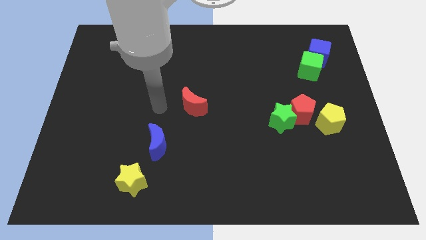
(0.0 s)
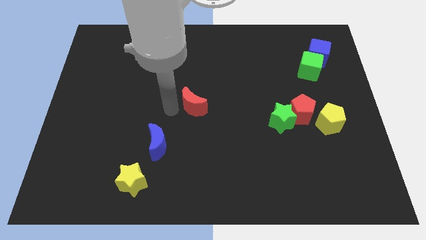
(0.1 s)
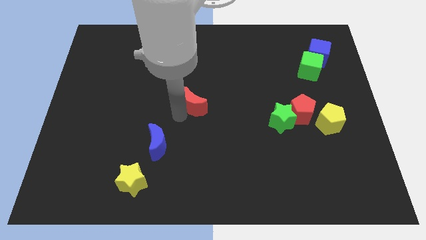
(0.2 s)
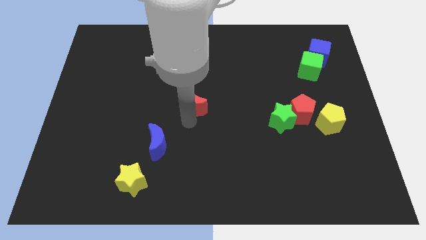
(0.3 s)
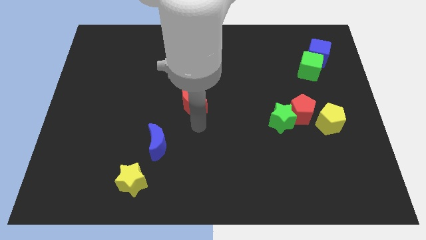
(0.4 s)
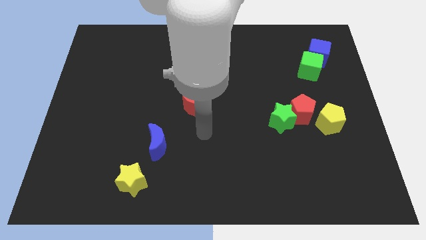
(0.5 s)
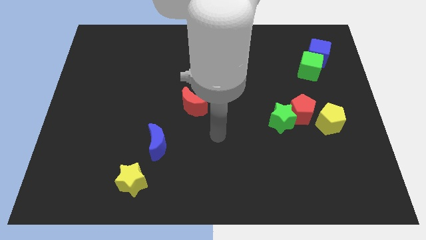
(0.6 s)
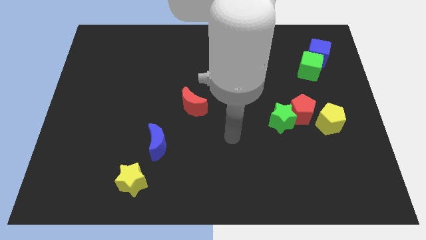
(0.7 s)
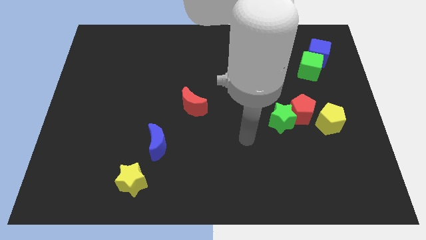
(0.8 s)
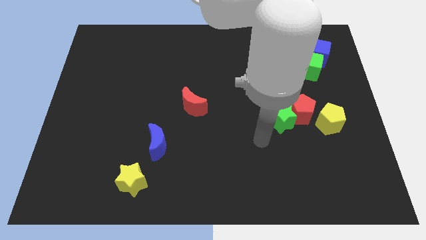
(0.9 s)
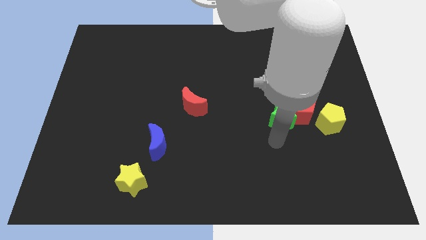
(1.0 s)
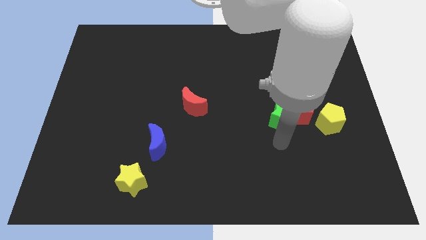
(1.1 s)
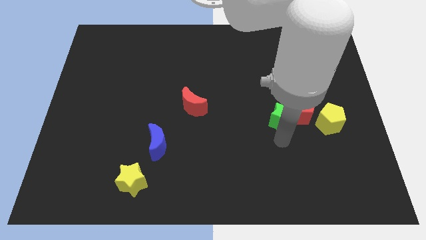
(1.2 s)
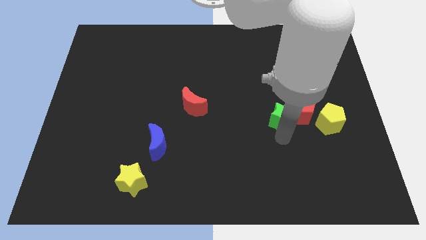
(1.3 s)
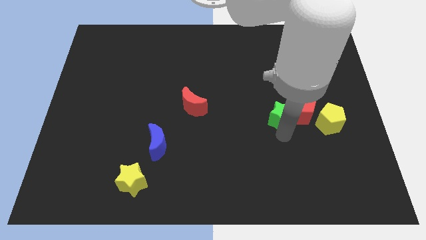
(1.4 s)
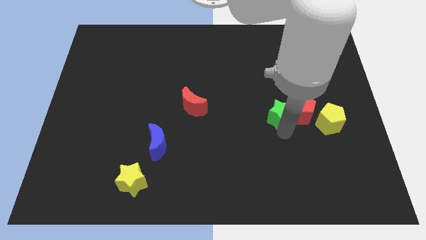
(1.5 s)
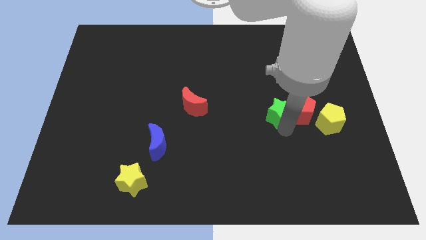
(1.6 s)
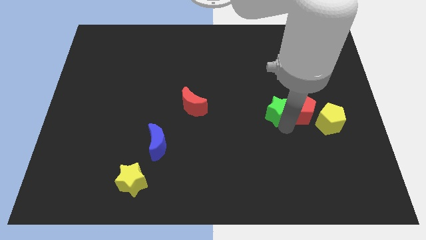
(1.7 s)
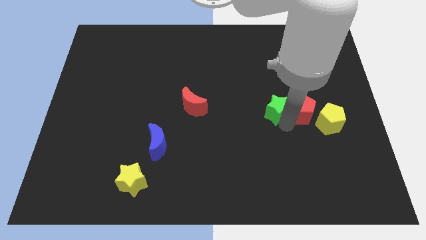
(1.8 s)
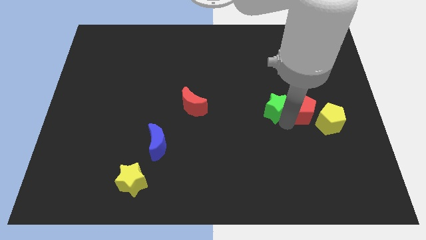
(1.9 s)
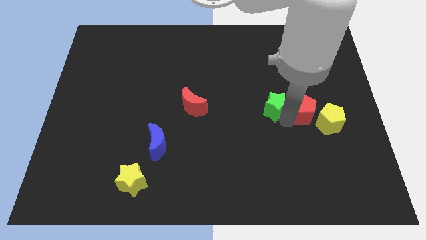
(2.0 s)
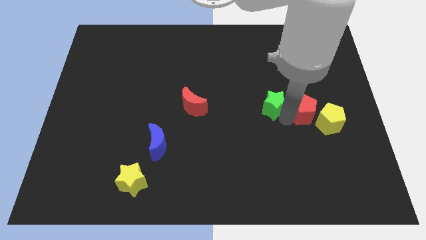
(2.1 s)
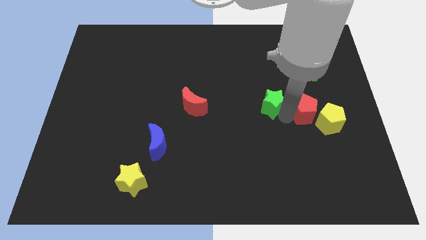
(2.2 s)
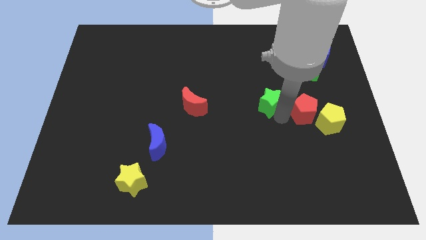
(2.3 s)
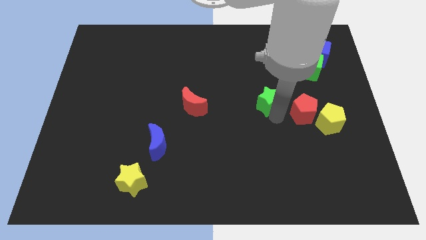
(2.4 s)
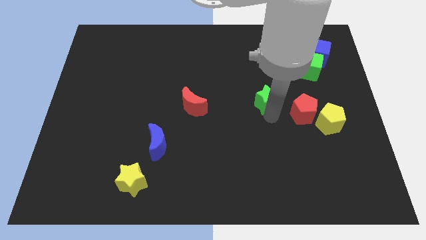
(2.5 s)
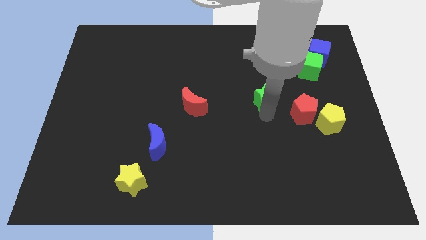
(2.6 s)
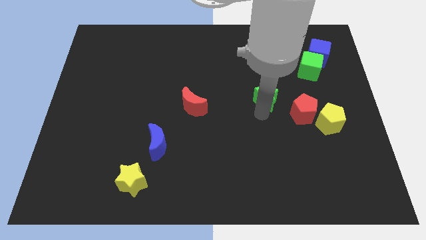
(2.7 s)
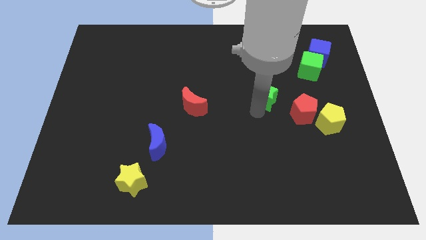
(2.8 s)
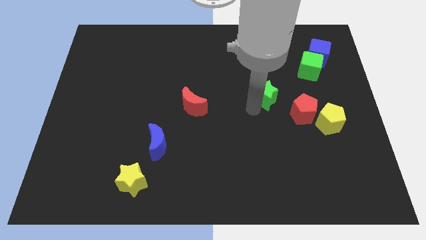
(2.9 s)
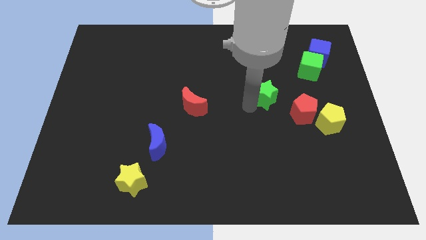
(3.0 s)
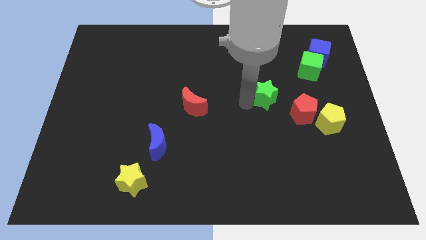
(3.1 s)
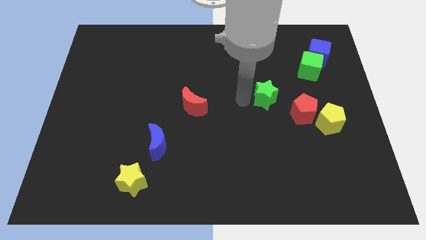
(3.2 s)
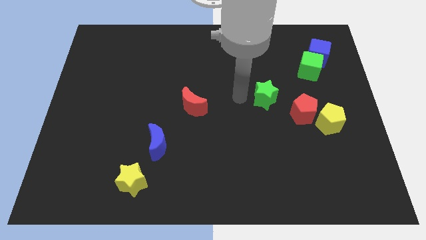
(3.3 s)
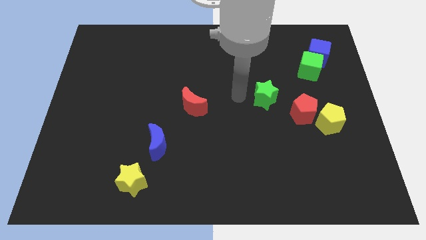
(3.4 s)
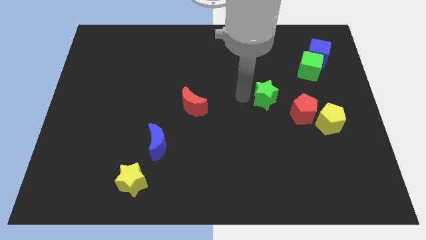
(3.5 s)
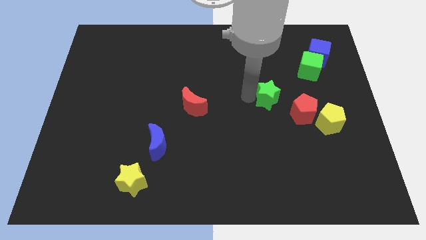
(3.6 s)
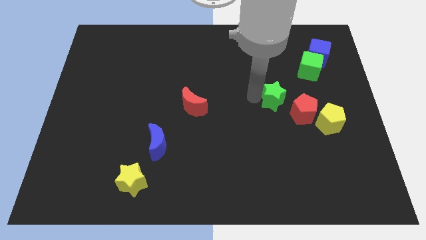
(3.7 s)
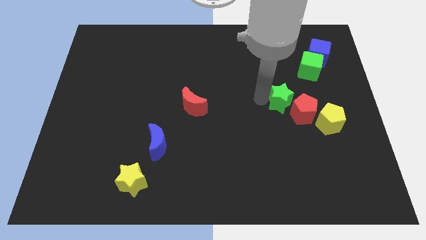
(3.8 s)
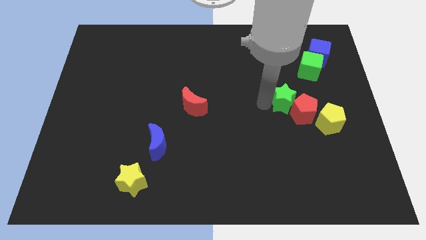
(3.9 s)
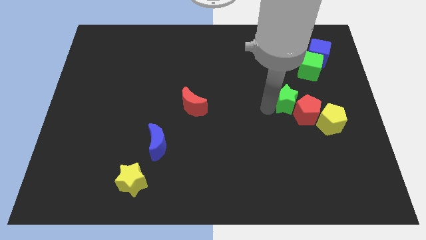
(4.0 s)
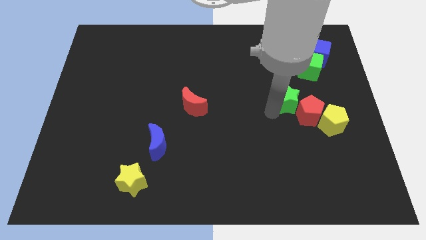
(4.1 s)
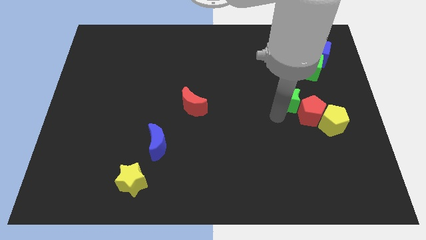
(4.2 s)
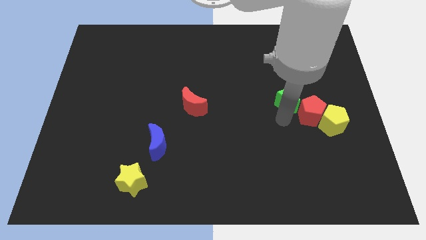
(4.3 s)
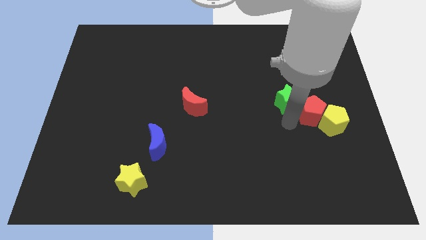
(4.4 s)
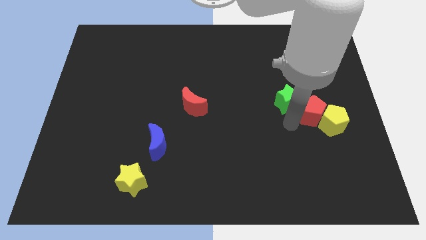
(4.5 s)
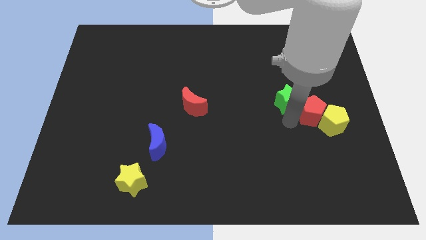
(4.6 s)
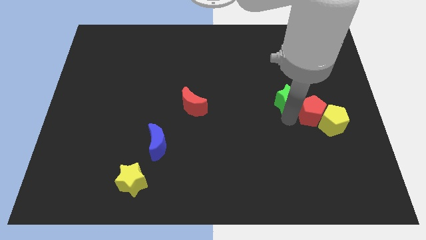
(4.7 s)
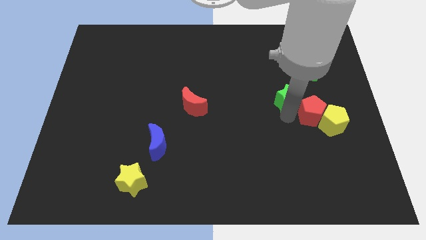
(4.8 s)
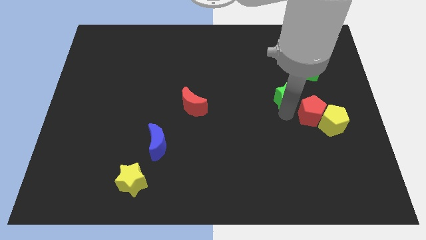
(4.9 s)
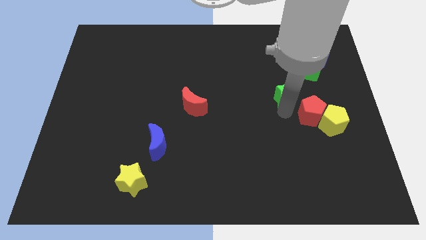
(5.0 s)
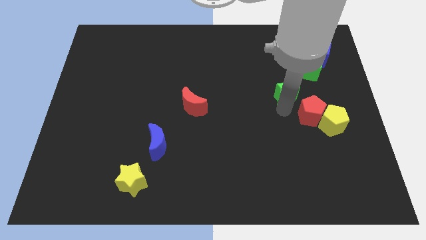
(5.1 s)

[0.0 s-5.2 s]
slightly move the green star upwards

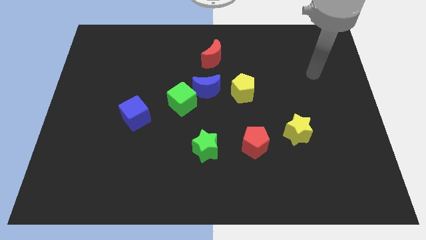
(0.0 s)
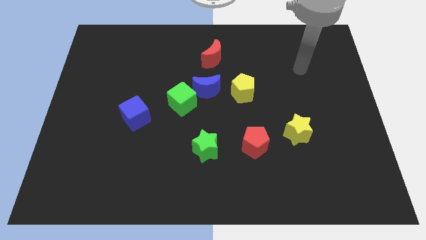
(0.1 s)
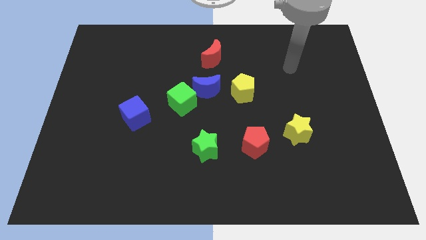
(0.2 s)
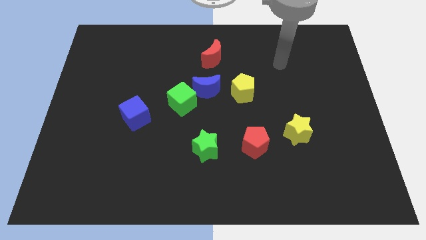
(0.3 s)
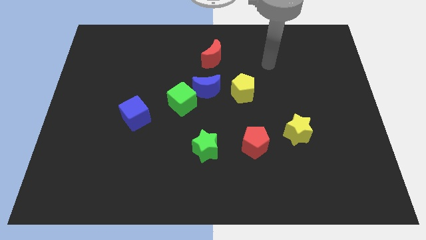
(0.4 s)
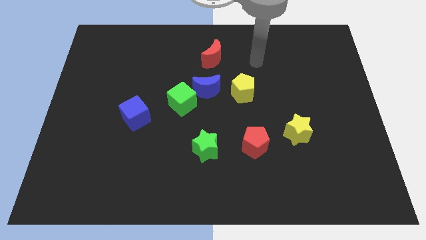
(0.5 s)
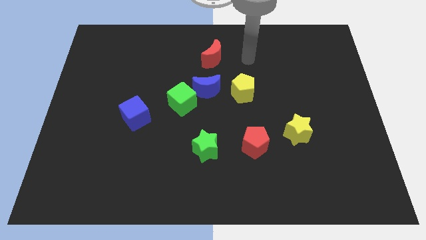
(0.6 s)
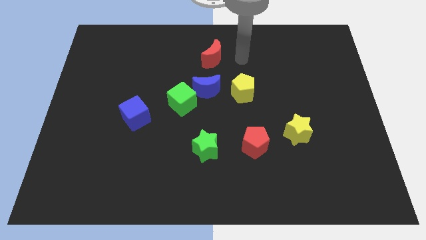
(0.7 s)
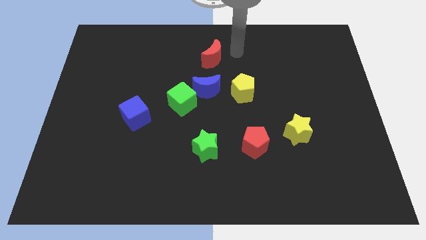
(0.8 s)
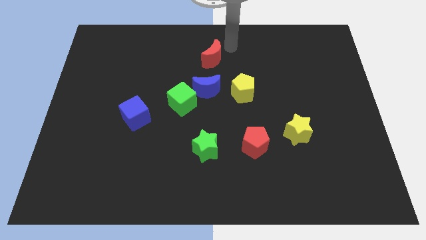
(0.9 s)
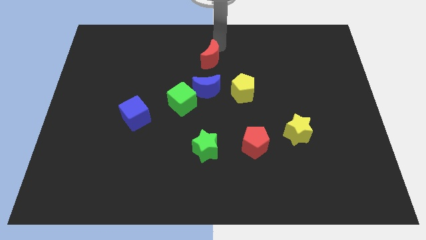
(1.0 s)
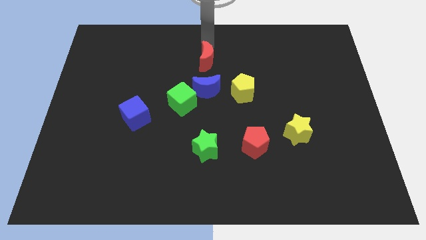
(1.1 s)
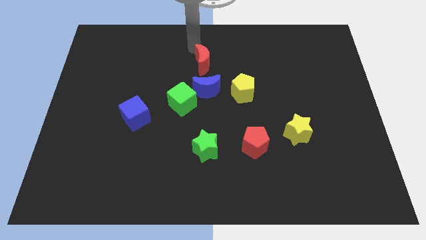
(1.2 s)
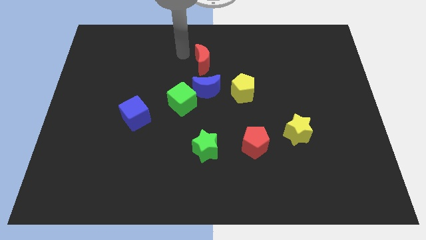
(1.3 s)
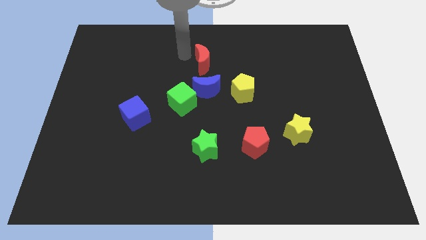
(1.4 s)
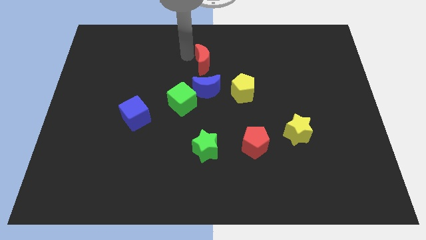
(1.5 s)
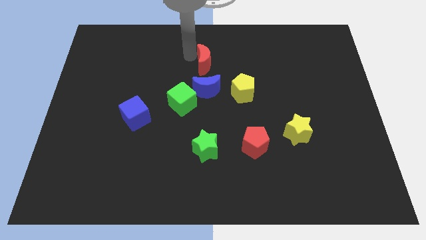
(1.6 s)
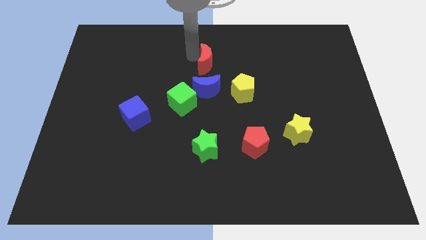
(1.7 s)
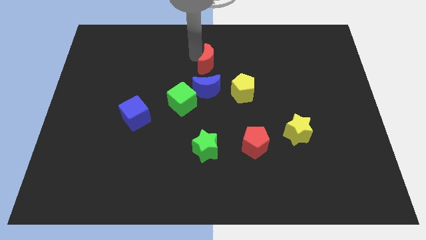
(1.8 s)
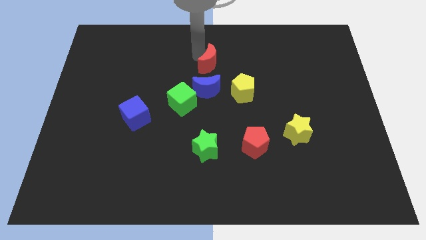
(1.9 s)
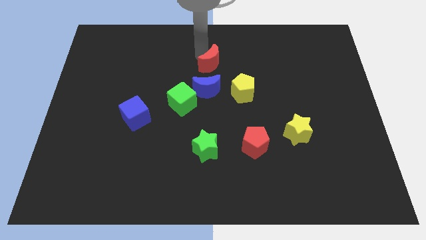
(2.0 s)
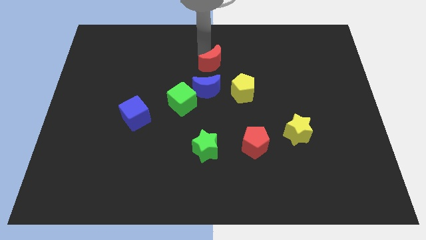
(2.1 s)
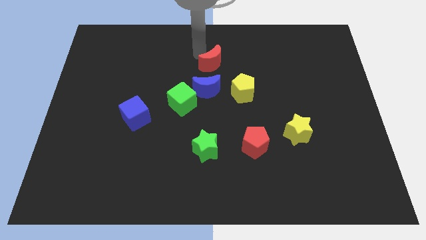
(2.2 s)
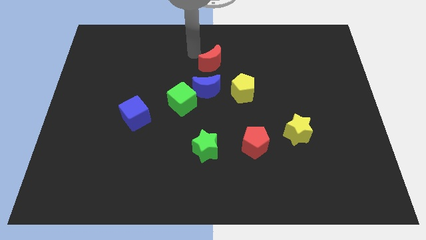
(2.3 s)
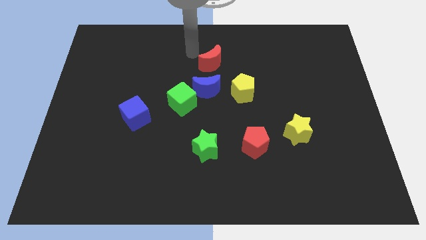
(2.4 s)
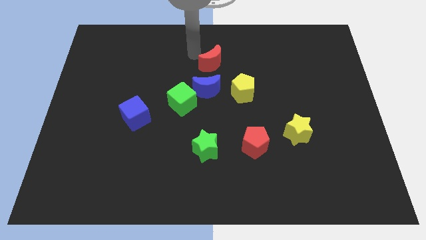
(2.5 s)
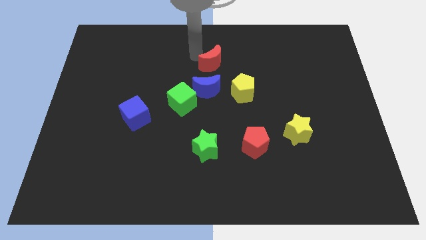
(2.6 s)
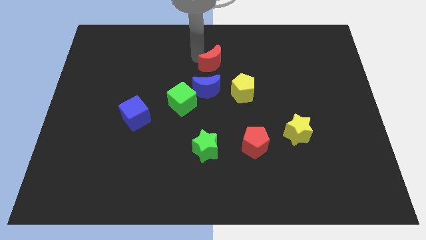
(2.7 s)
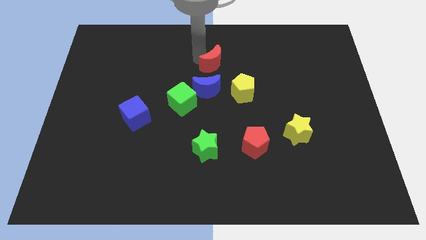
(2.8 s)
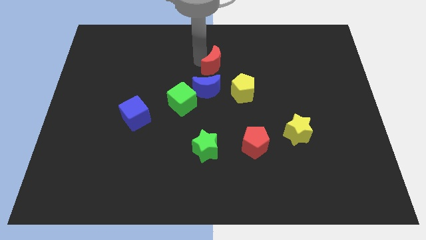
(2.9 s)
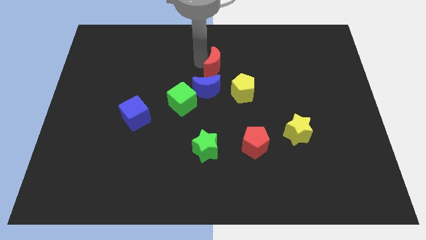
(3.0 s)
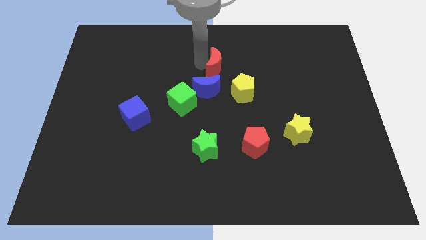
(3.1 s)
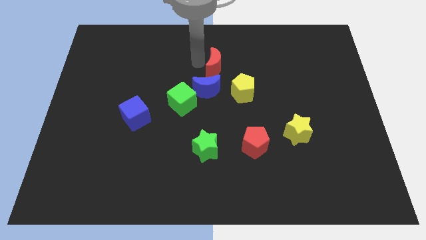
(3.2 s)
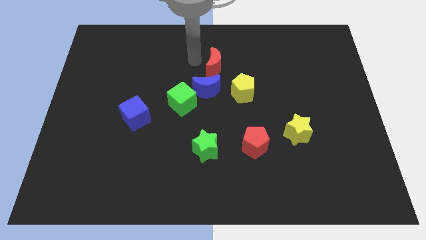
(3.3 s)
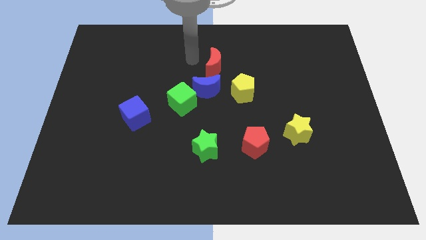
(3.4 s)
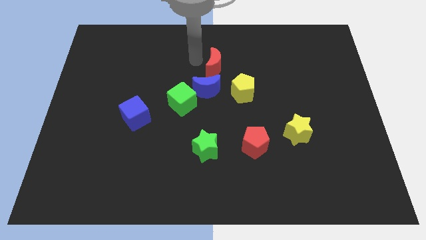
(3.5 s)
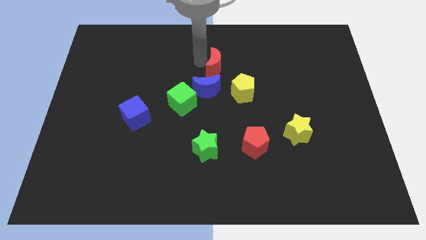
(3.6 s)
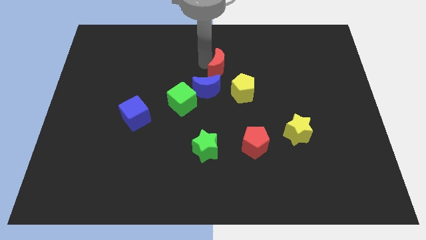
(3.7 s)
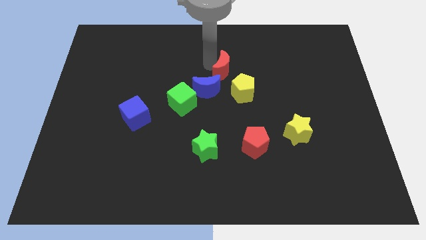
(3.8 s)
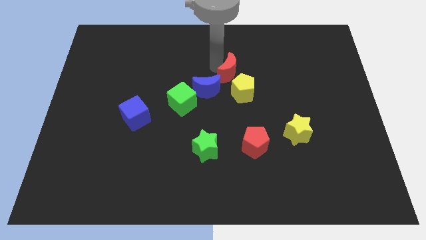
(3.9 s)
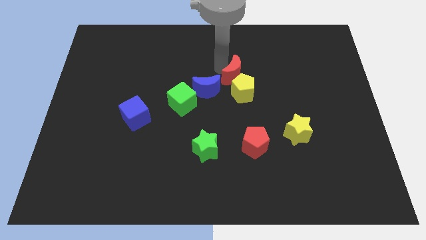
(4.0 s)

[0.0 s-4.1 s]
move the red moon diagonally downwards and to the right a little
